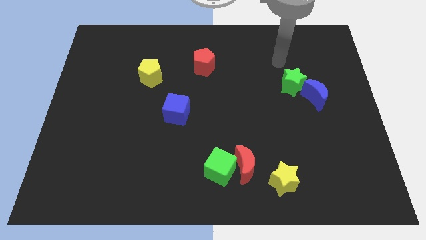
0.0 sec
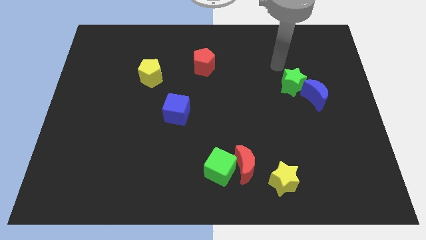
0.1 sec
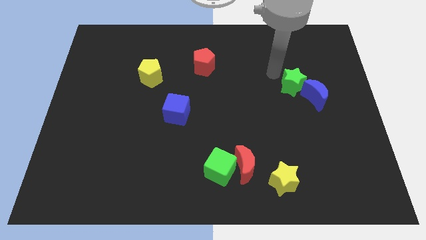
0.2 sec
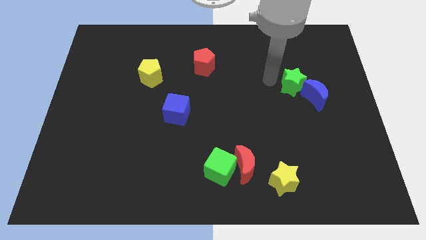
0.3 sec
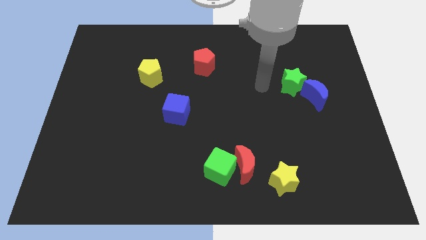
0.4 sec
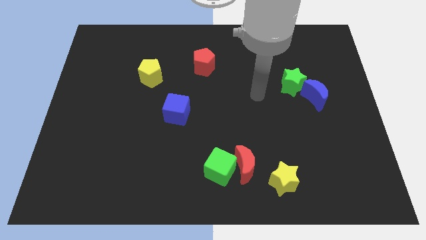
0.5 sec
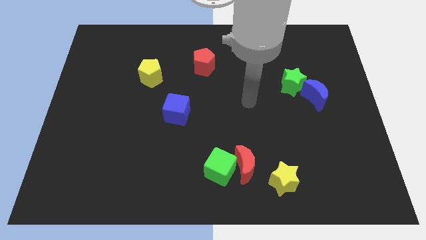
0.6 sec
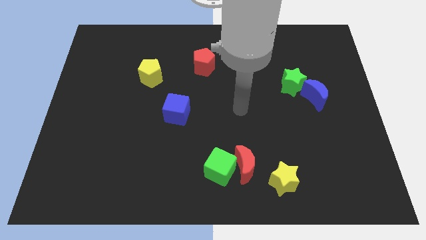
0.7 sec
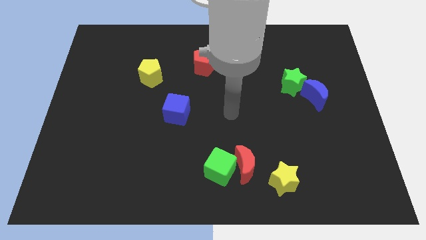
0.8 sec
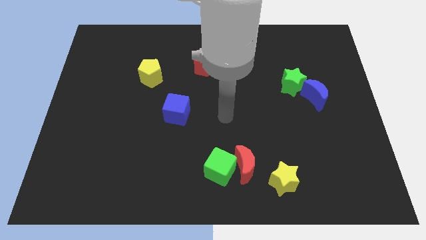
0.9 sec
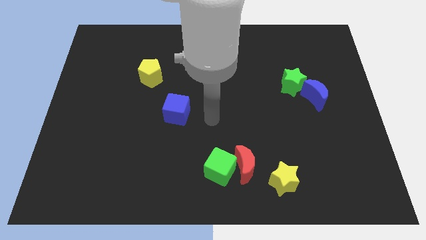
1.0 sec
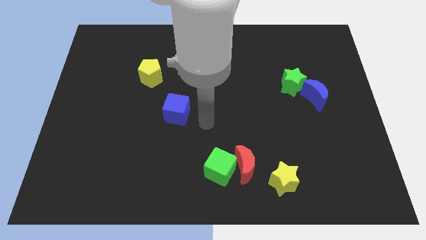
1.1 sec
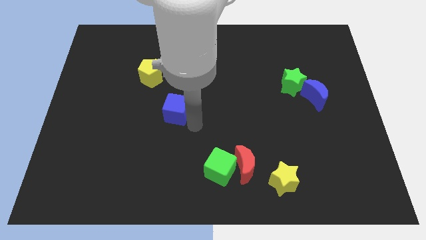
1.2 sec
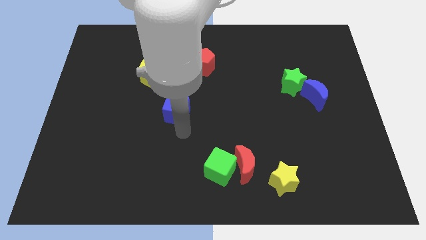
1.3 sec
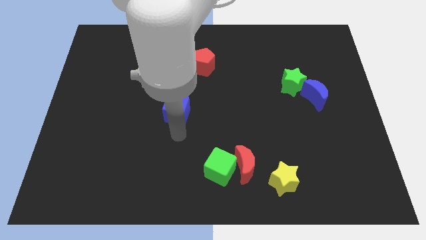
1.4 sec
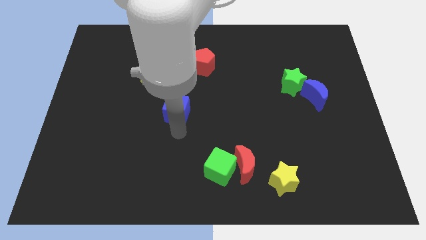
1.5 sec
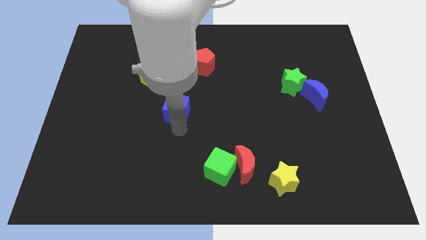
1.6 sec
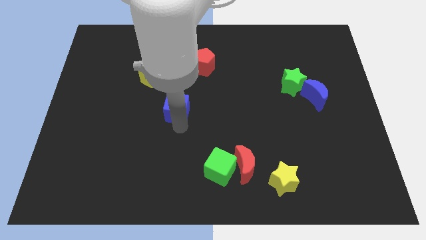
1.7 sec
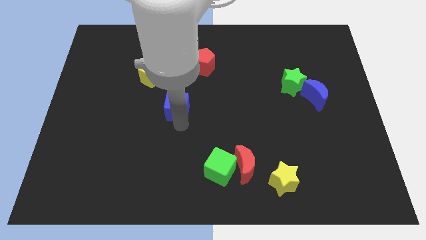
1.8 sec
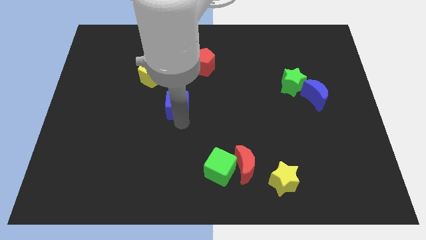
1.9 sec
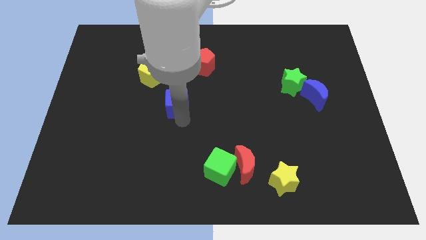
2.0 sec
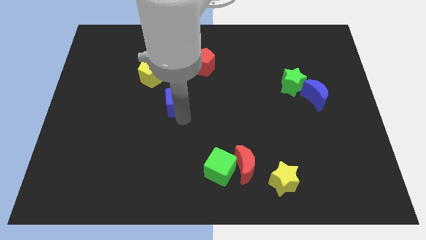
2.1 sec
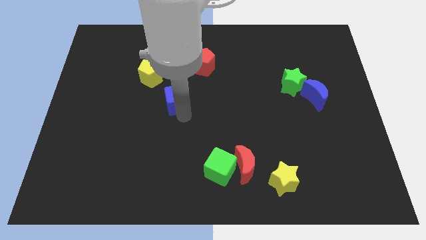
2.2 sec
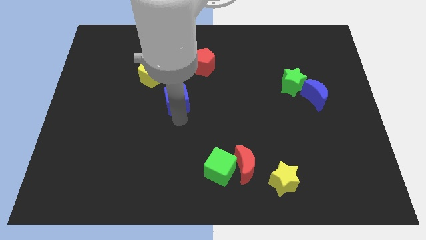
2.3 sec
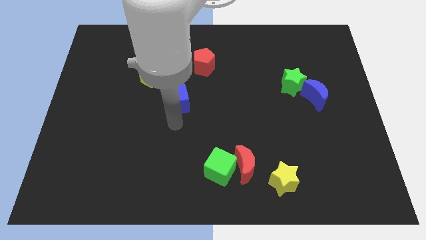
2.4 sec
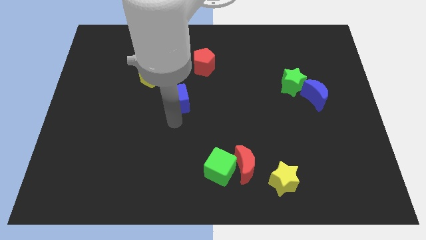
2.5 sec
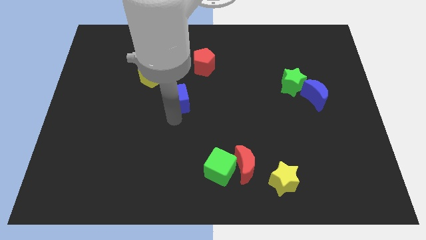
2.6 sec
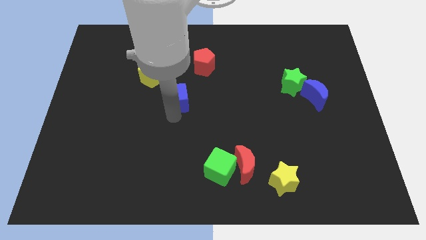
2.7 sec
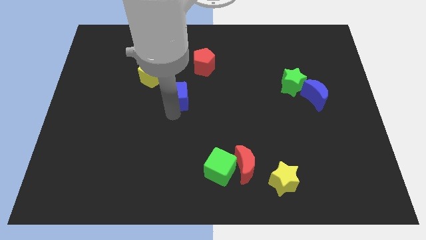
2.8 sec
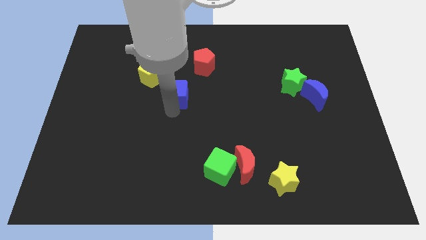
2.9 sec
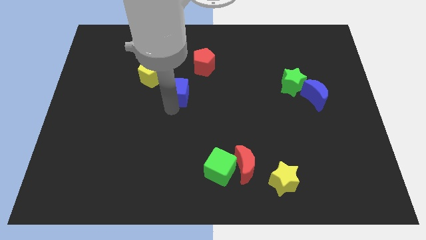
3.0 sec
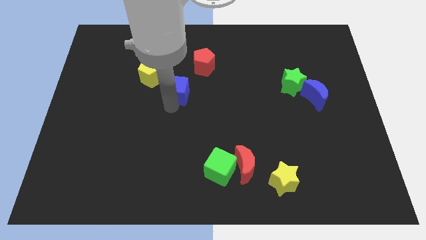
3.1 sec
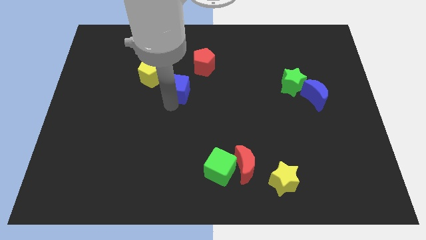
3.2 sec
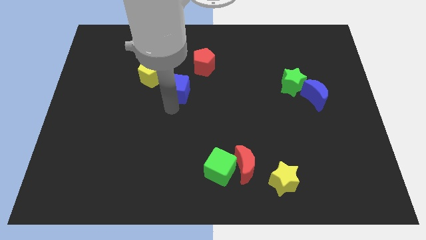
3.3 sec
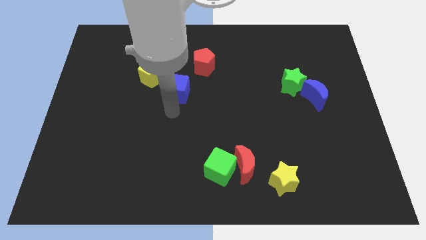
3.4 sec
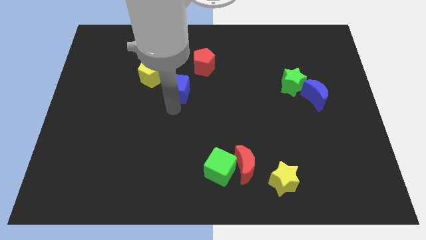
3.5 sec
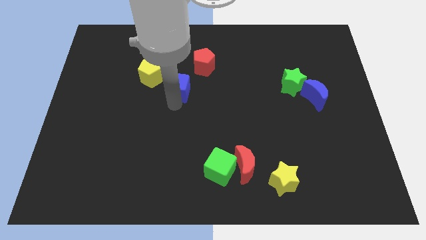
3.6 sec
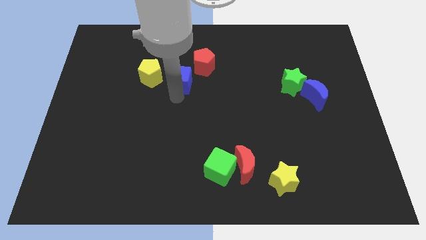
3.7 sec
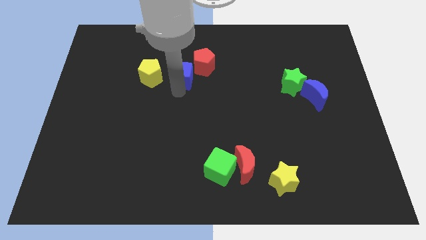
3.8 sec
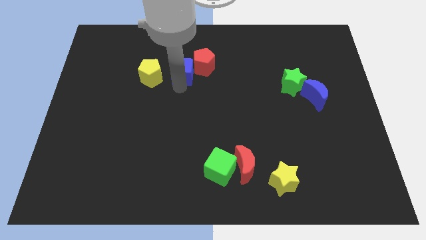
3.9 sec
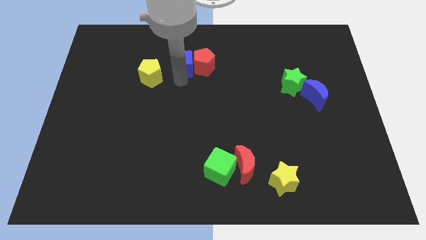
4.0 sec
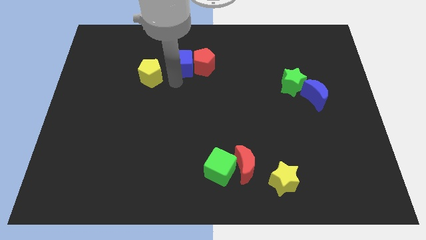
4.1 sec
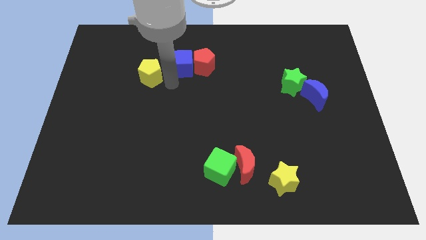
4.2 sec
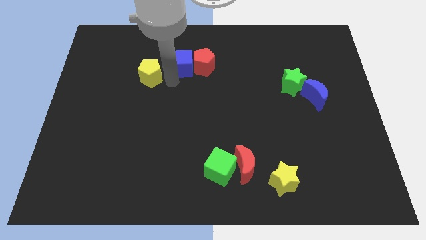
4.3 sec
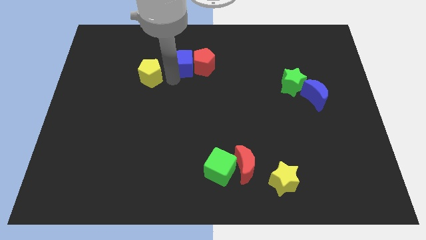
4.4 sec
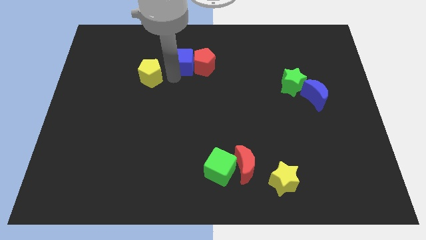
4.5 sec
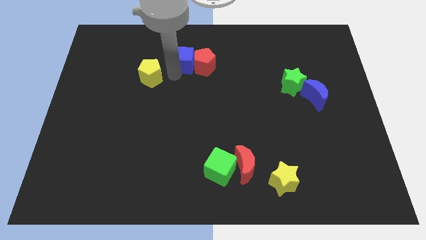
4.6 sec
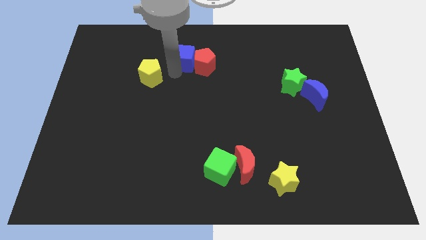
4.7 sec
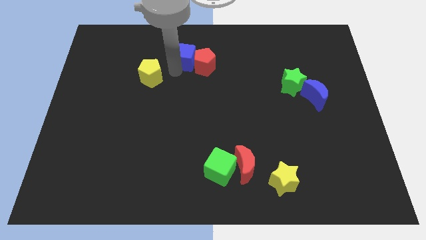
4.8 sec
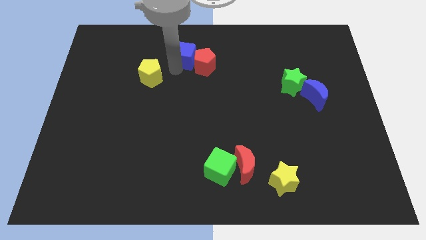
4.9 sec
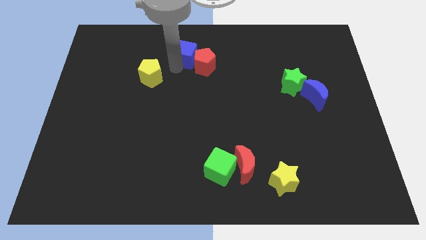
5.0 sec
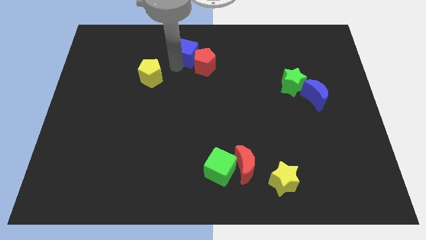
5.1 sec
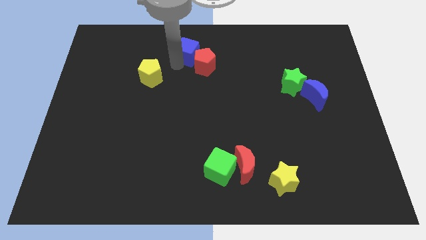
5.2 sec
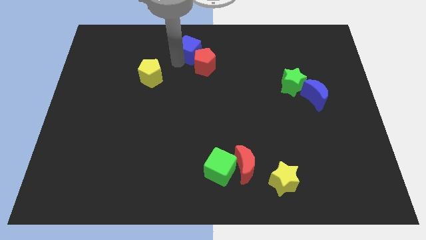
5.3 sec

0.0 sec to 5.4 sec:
put the blue cube to the top side
